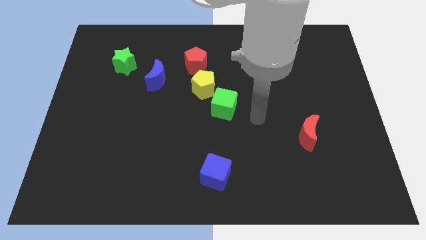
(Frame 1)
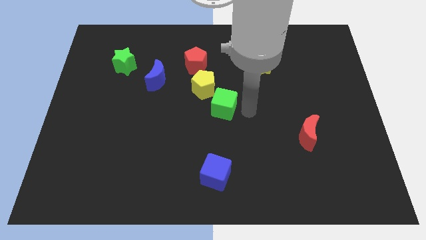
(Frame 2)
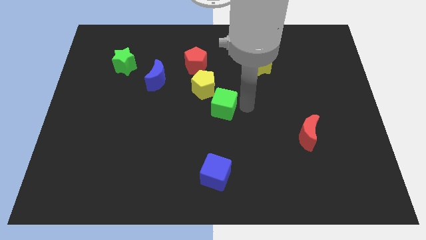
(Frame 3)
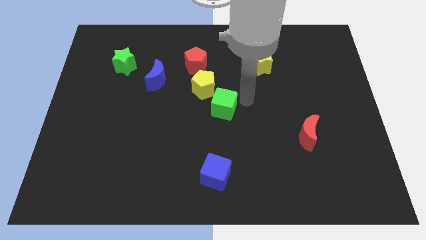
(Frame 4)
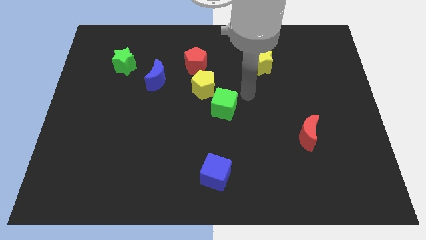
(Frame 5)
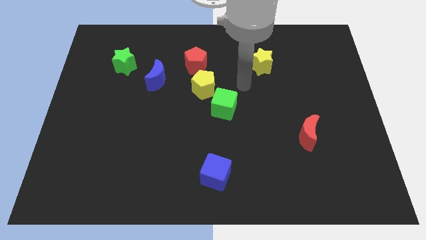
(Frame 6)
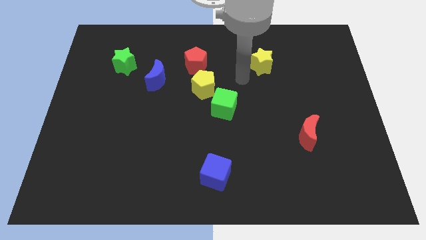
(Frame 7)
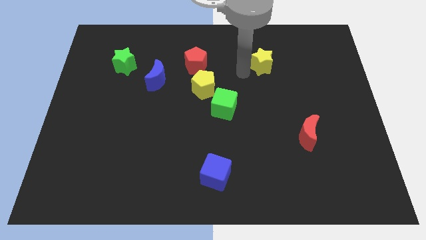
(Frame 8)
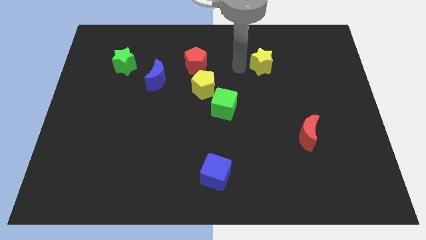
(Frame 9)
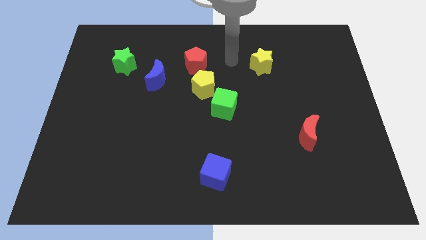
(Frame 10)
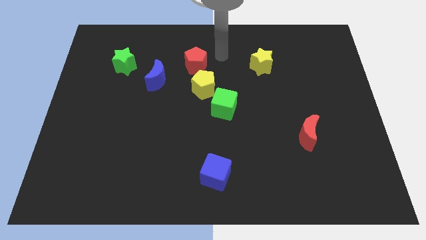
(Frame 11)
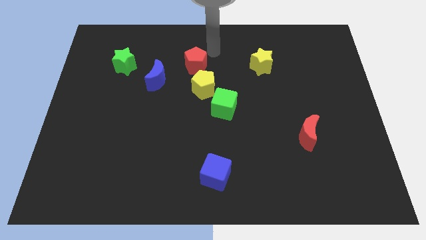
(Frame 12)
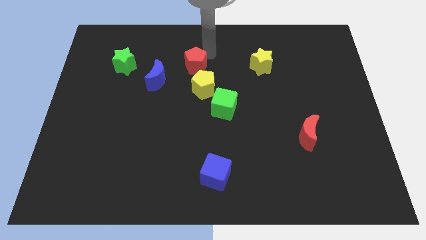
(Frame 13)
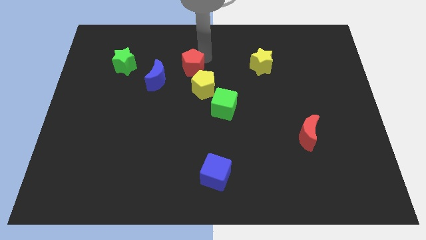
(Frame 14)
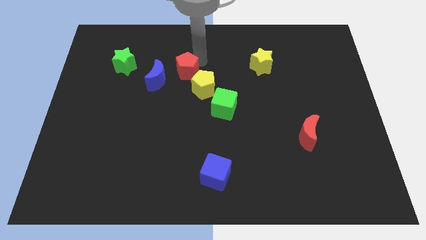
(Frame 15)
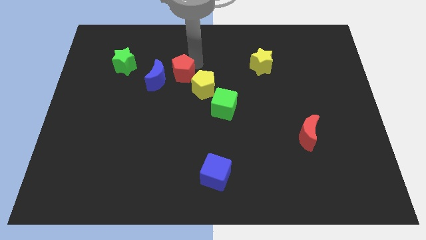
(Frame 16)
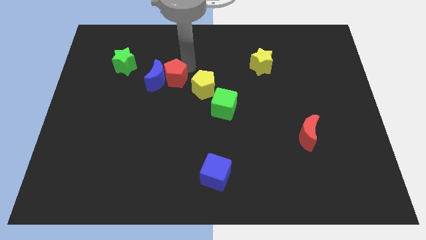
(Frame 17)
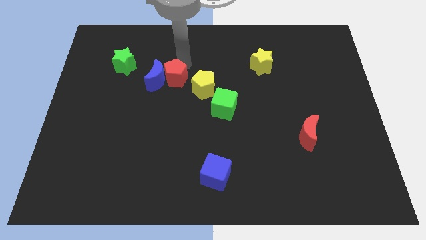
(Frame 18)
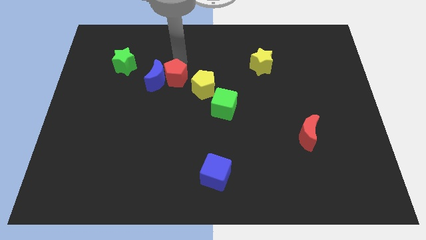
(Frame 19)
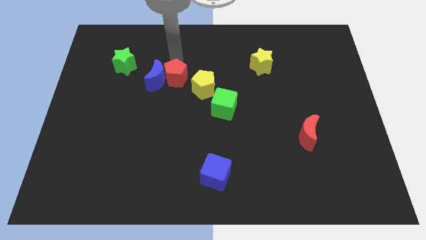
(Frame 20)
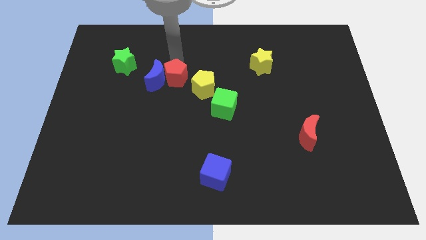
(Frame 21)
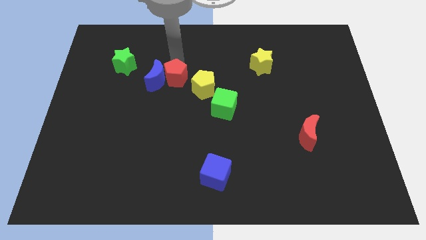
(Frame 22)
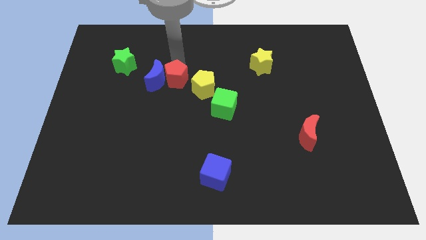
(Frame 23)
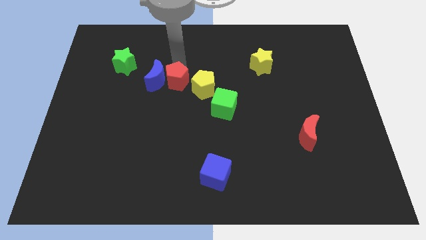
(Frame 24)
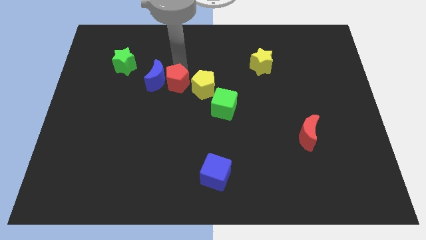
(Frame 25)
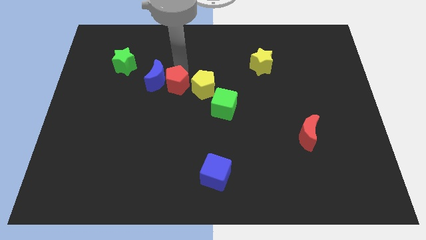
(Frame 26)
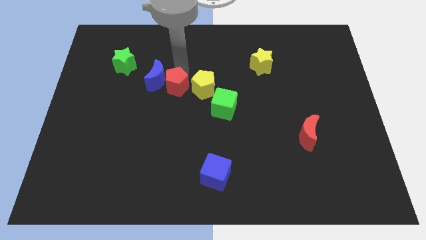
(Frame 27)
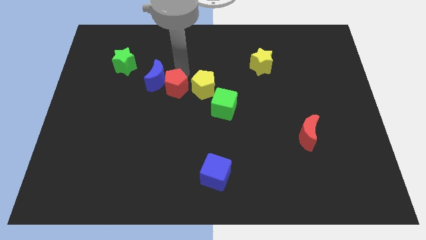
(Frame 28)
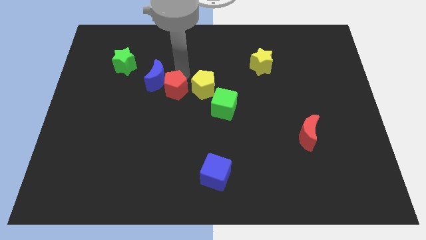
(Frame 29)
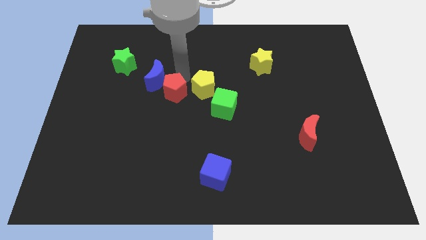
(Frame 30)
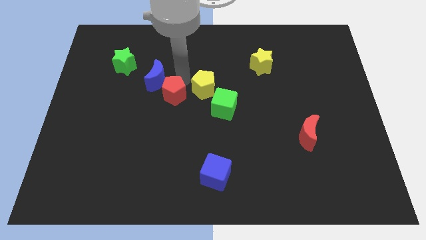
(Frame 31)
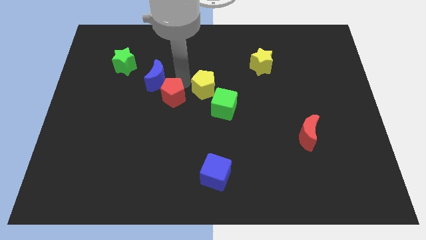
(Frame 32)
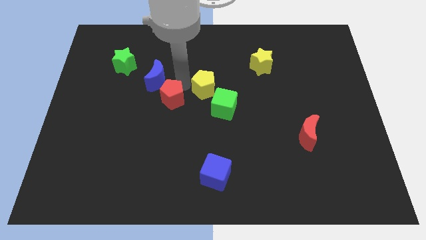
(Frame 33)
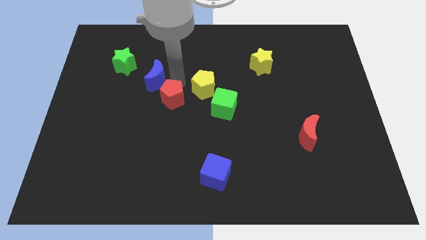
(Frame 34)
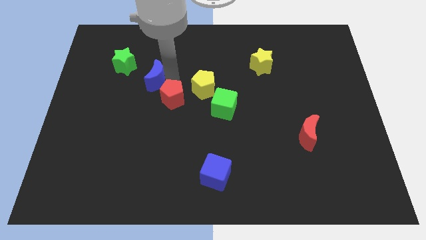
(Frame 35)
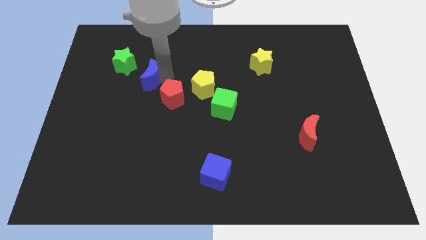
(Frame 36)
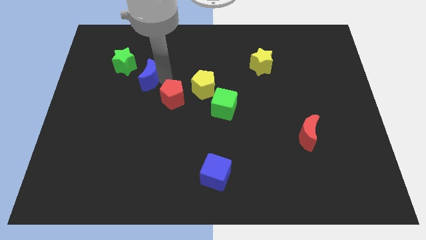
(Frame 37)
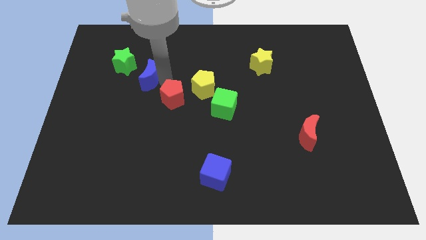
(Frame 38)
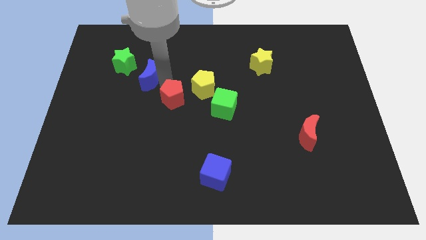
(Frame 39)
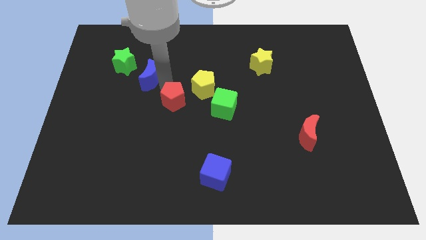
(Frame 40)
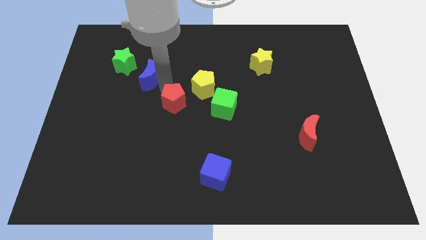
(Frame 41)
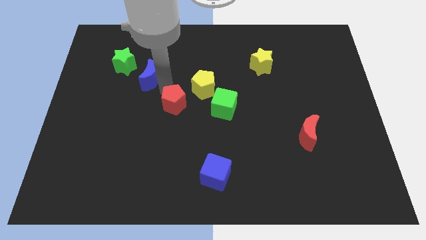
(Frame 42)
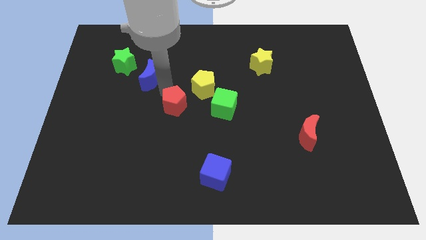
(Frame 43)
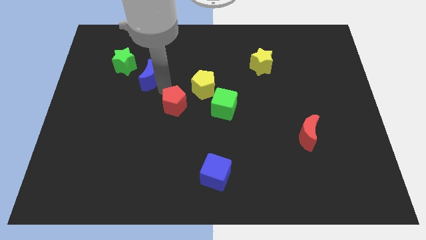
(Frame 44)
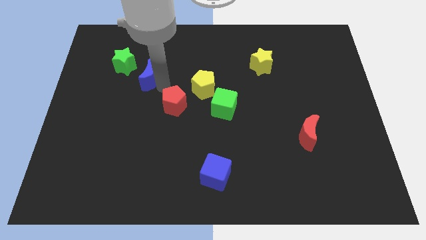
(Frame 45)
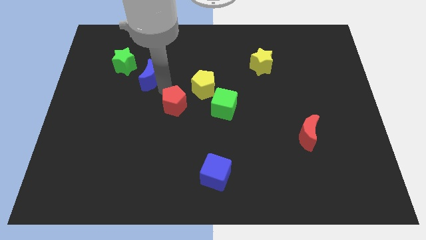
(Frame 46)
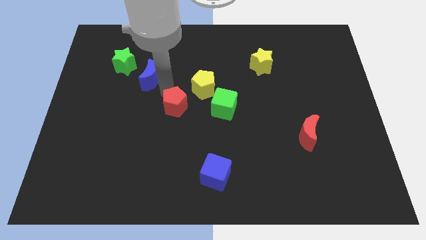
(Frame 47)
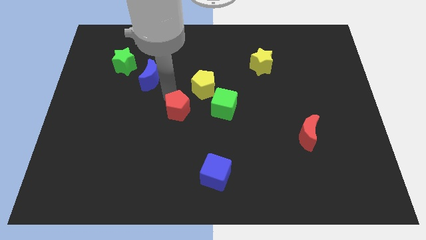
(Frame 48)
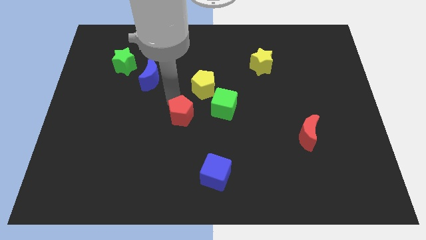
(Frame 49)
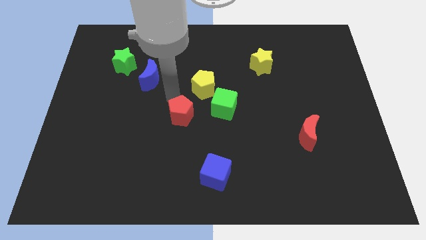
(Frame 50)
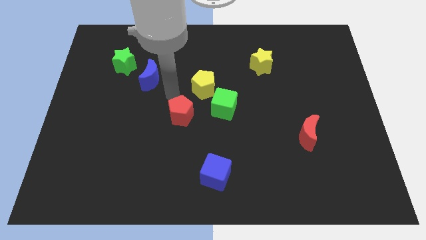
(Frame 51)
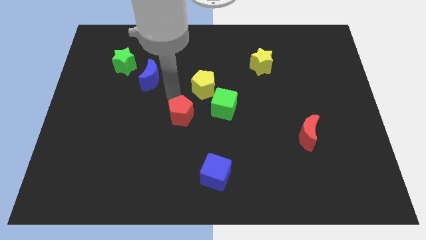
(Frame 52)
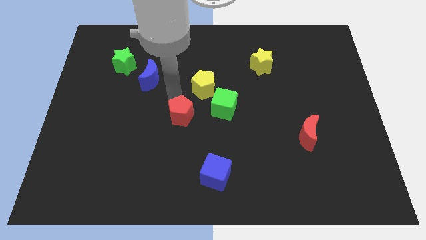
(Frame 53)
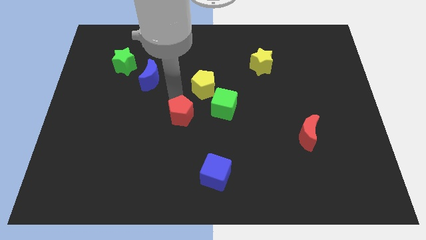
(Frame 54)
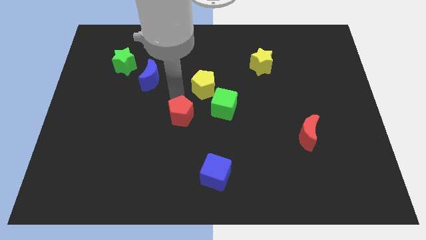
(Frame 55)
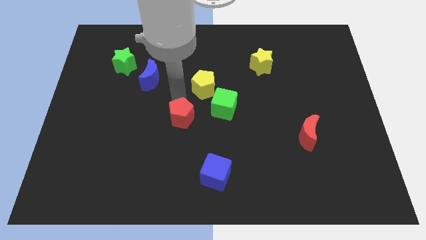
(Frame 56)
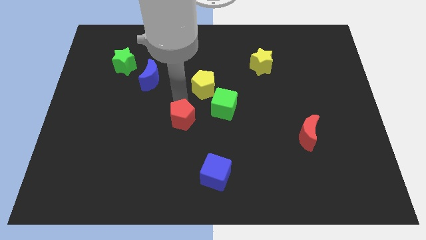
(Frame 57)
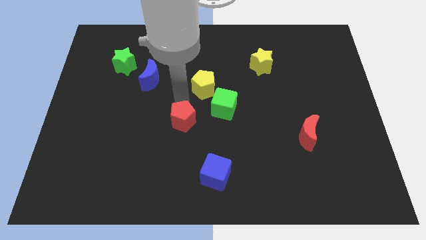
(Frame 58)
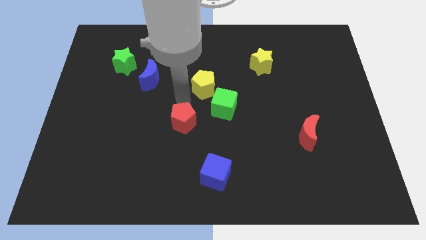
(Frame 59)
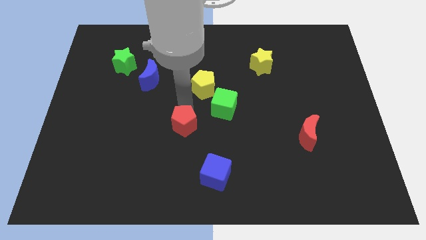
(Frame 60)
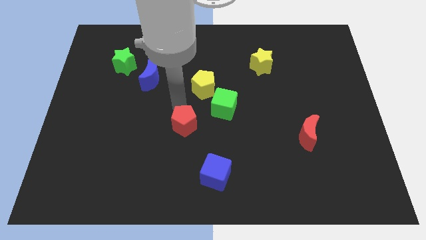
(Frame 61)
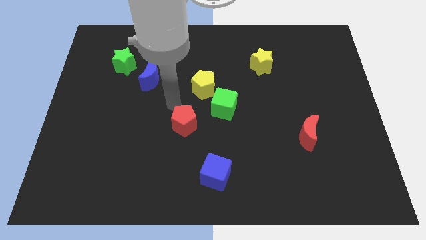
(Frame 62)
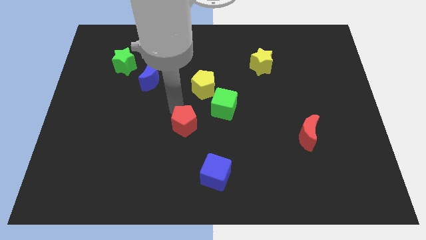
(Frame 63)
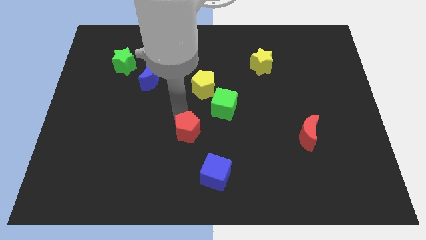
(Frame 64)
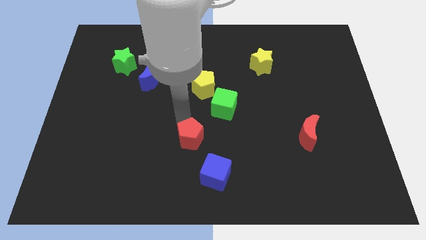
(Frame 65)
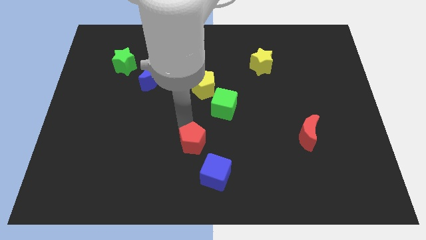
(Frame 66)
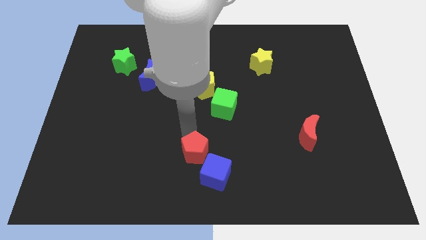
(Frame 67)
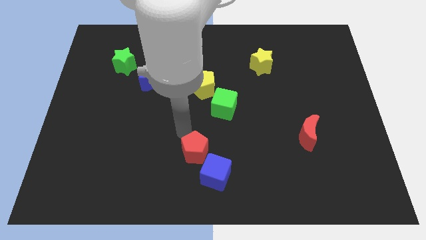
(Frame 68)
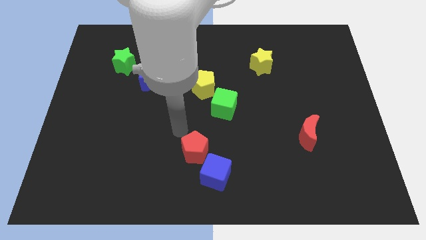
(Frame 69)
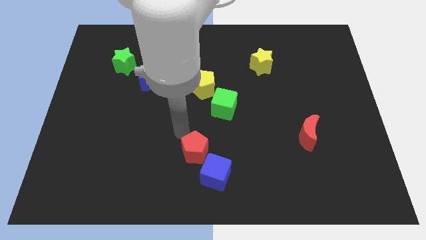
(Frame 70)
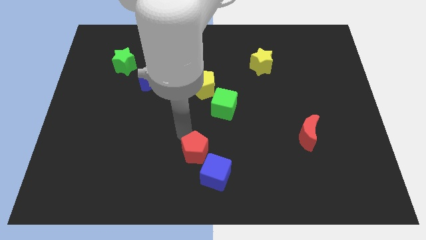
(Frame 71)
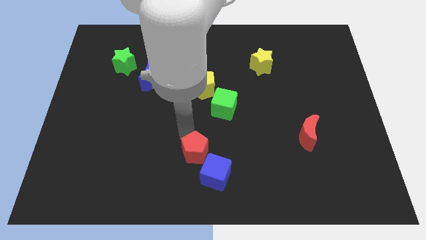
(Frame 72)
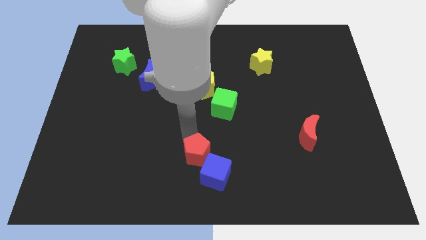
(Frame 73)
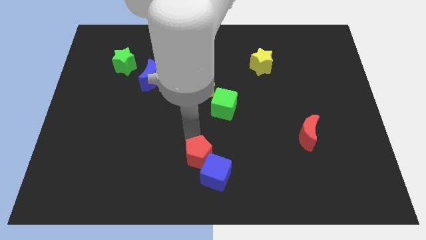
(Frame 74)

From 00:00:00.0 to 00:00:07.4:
put the red pentagon towards the blue cube

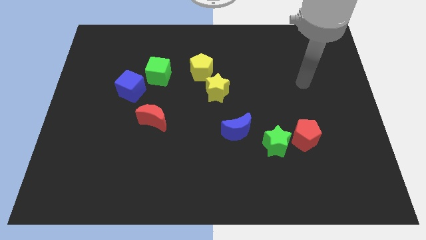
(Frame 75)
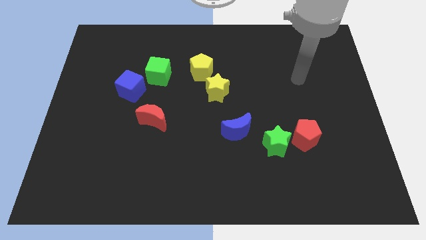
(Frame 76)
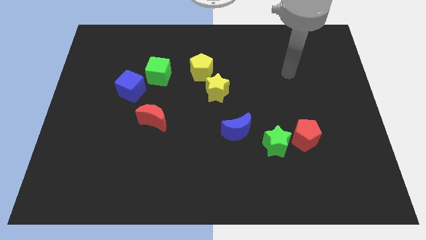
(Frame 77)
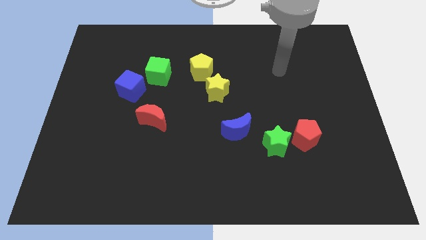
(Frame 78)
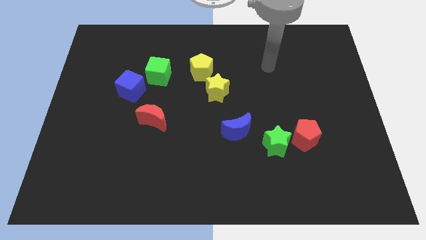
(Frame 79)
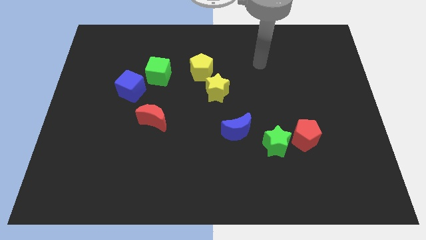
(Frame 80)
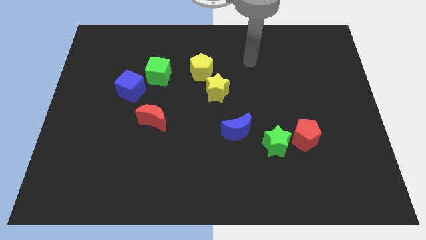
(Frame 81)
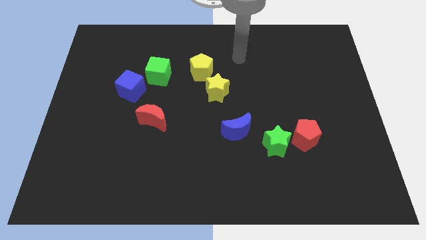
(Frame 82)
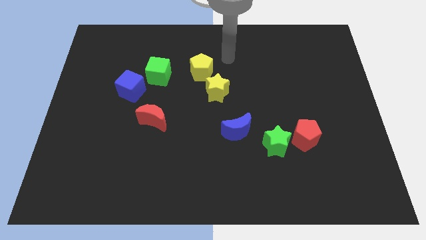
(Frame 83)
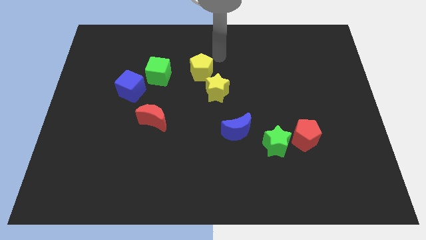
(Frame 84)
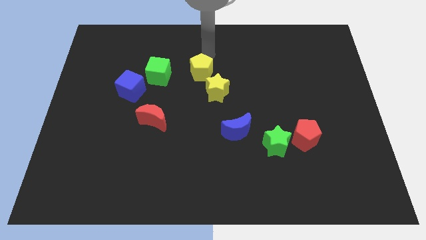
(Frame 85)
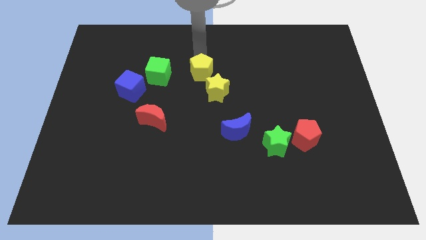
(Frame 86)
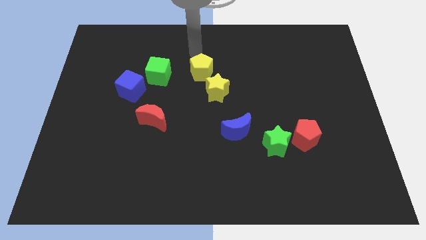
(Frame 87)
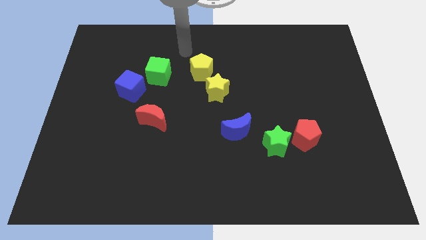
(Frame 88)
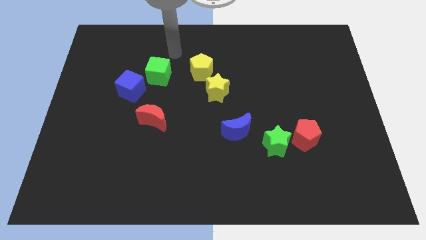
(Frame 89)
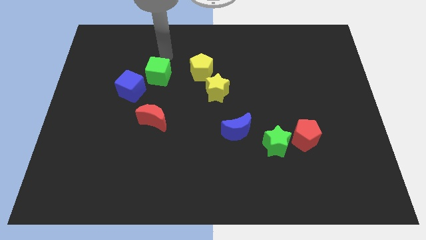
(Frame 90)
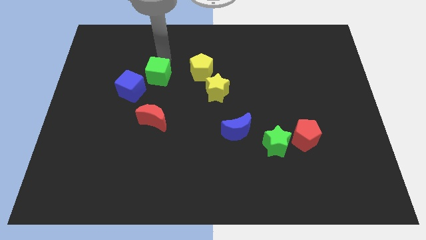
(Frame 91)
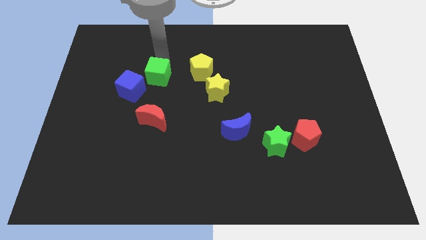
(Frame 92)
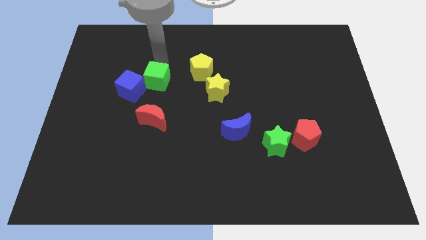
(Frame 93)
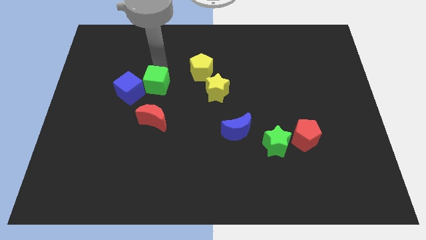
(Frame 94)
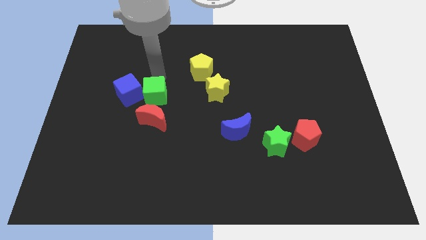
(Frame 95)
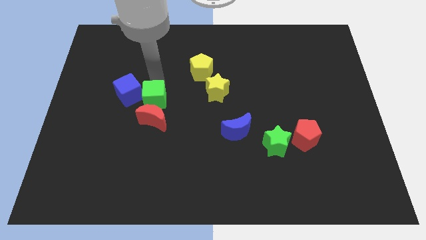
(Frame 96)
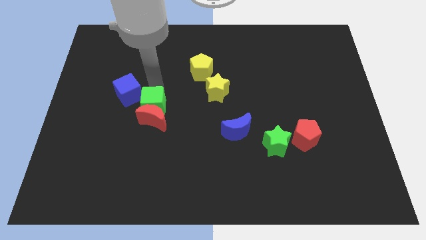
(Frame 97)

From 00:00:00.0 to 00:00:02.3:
slide the green cube close to the red moon
